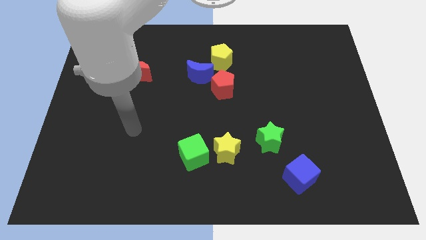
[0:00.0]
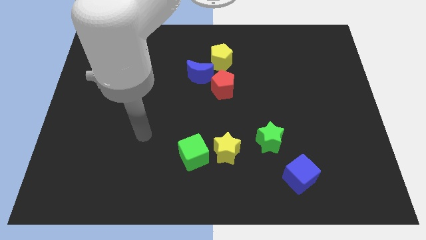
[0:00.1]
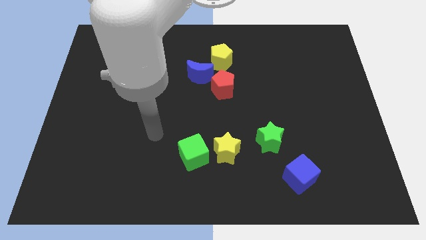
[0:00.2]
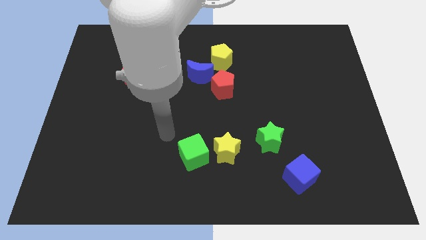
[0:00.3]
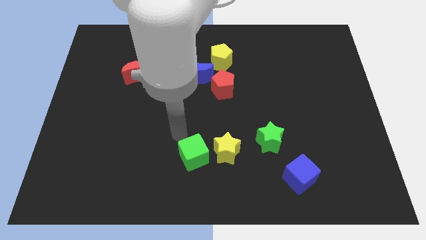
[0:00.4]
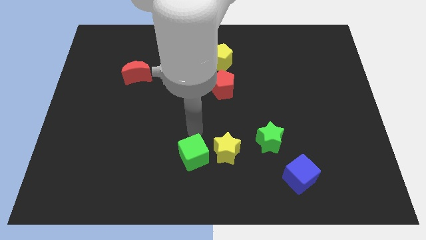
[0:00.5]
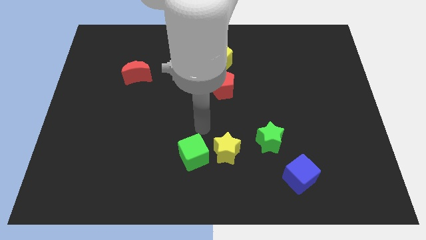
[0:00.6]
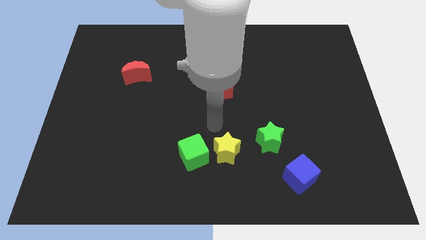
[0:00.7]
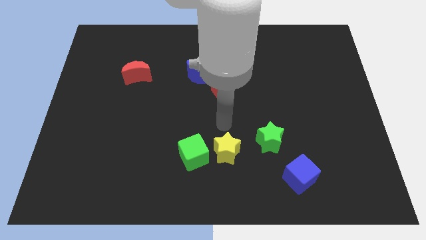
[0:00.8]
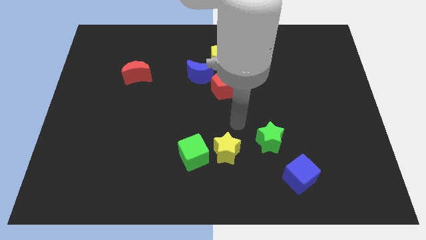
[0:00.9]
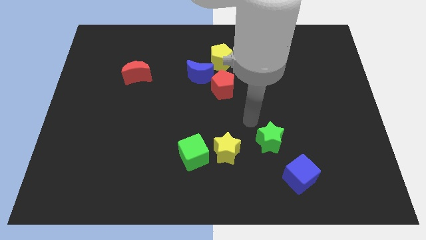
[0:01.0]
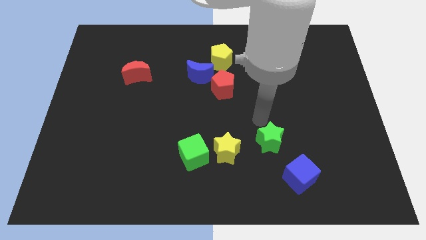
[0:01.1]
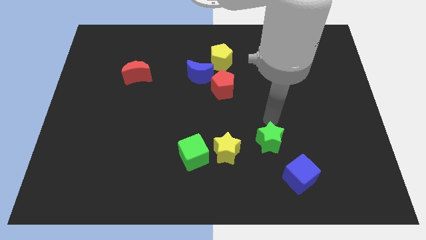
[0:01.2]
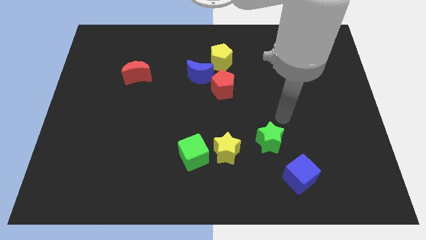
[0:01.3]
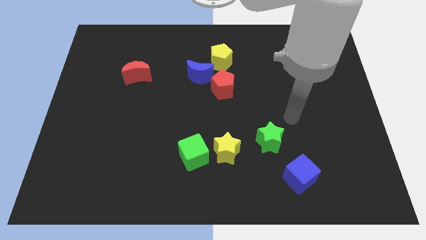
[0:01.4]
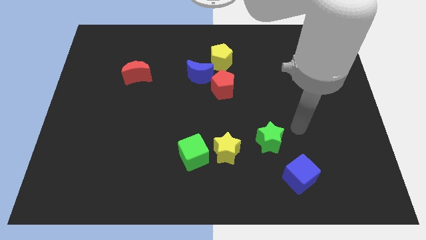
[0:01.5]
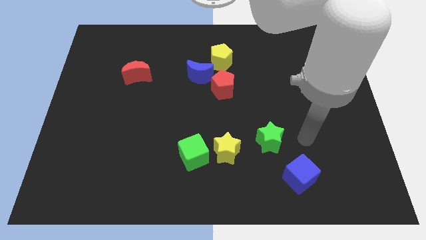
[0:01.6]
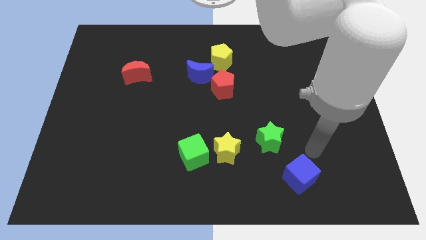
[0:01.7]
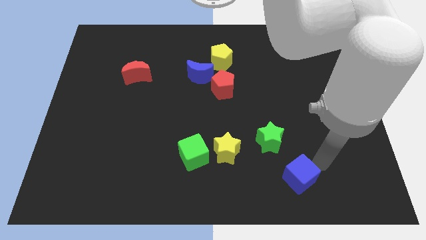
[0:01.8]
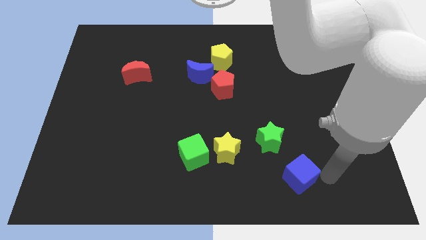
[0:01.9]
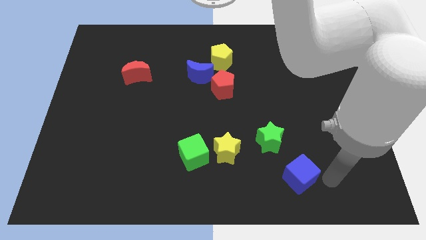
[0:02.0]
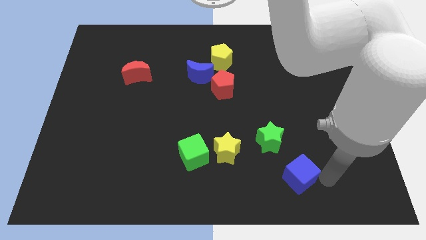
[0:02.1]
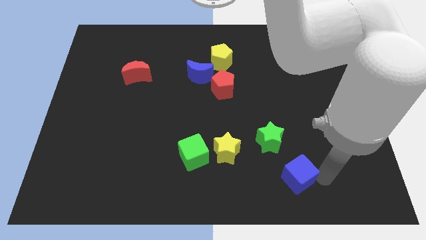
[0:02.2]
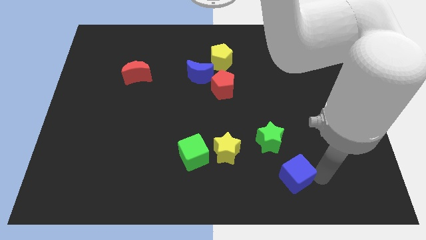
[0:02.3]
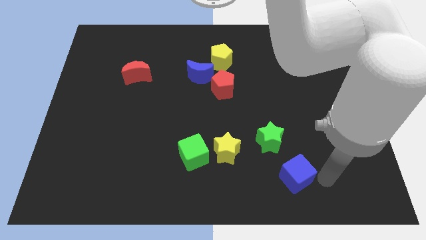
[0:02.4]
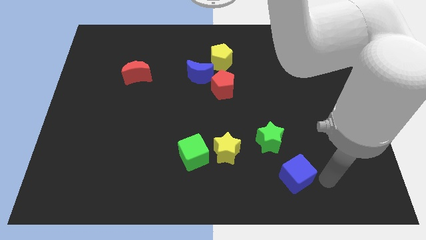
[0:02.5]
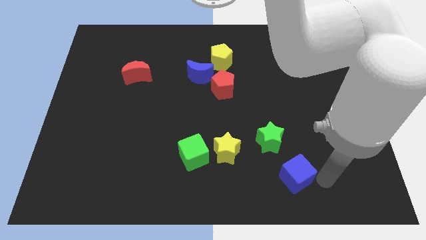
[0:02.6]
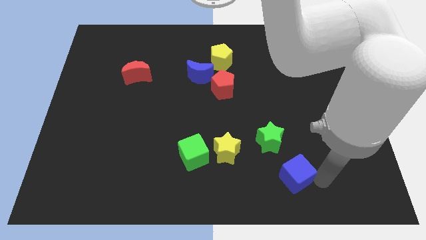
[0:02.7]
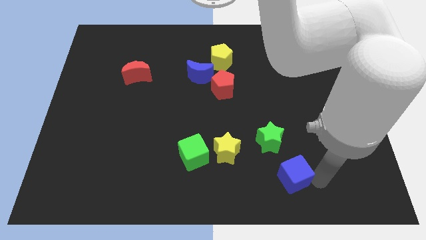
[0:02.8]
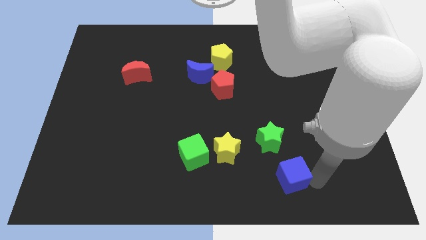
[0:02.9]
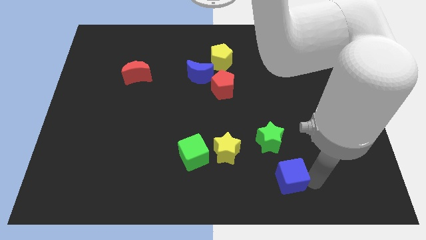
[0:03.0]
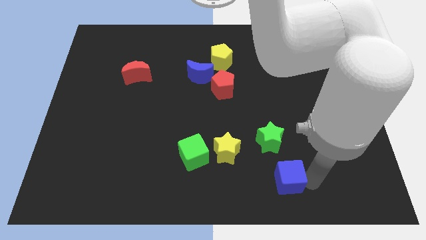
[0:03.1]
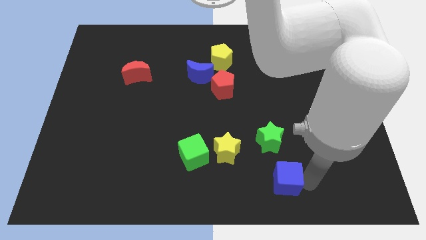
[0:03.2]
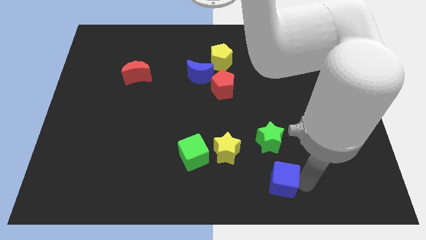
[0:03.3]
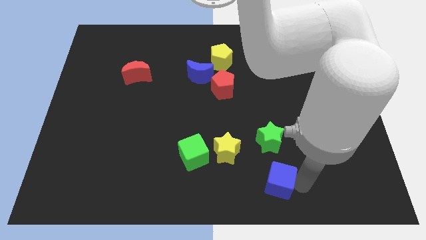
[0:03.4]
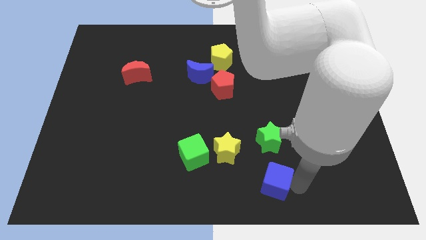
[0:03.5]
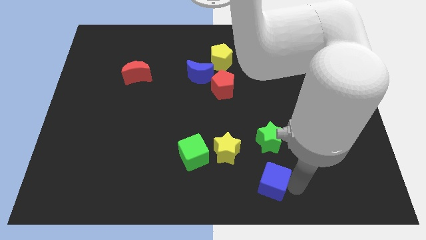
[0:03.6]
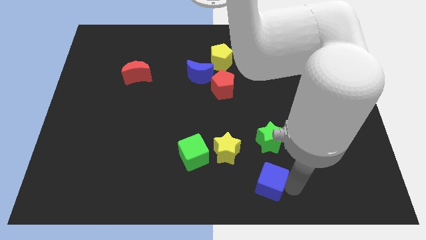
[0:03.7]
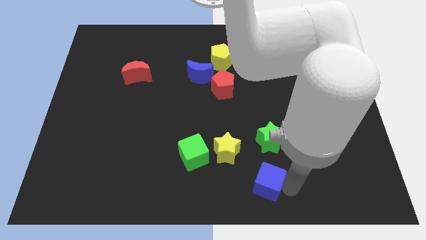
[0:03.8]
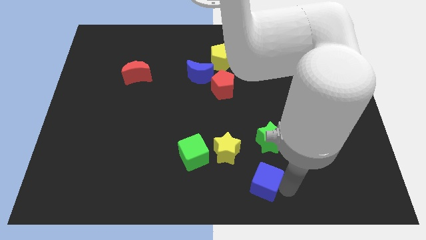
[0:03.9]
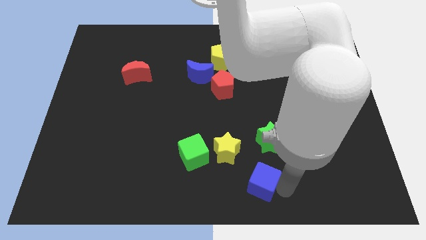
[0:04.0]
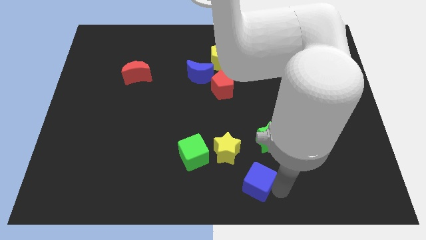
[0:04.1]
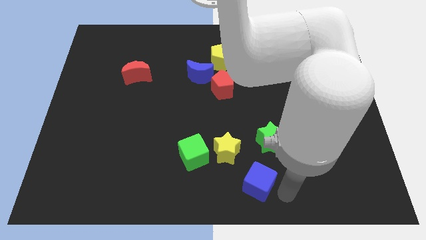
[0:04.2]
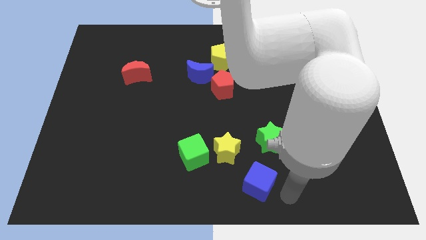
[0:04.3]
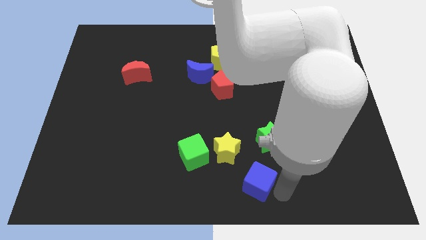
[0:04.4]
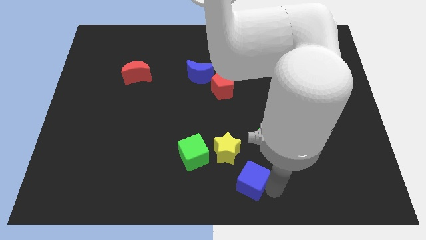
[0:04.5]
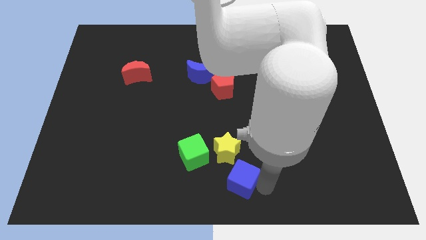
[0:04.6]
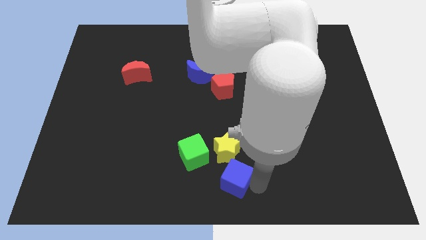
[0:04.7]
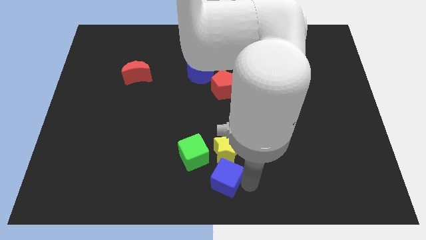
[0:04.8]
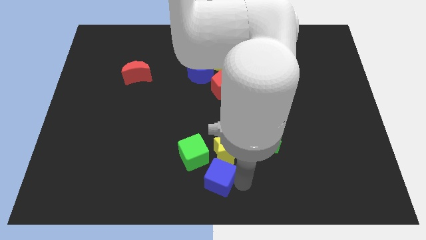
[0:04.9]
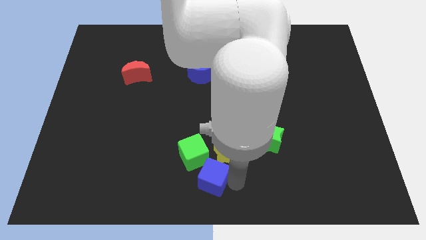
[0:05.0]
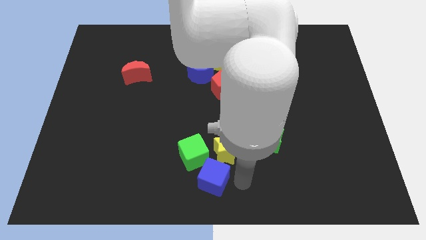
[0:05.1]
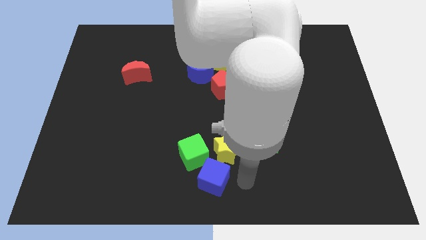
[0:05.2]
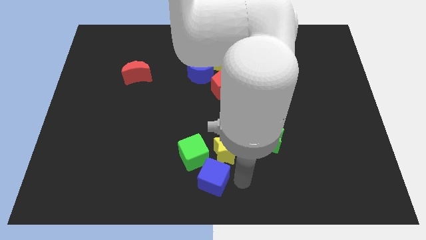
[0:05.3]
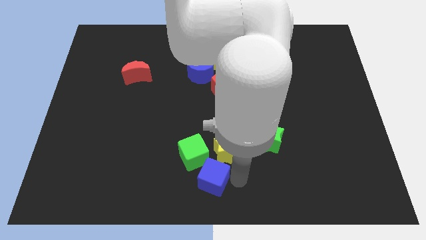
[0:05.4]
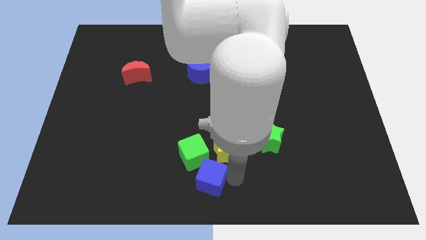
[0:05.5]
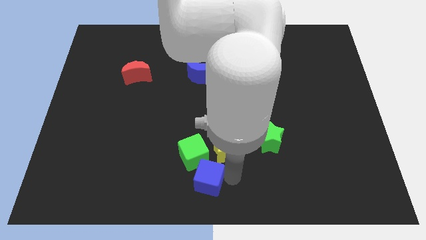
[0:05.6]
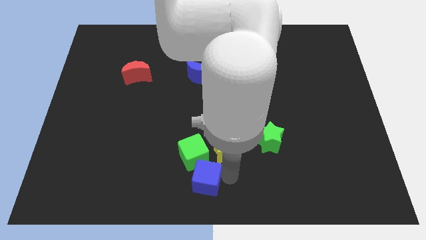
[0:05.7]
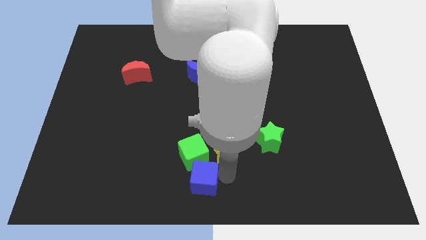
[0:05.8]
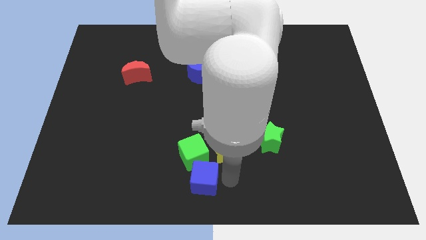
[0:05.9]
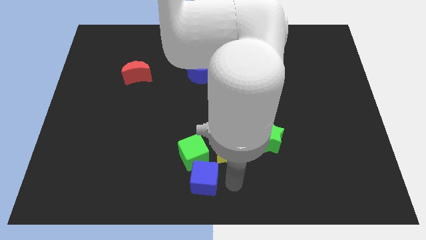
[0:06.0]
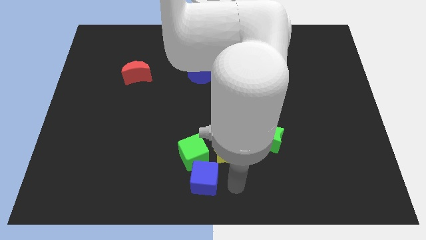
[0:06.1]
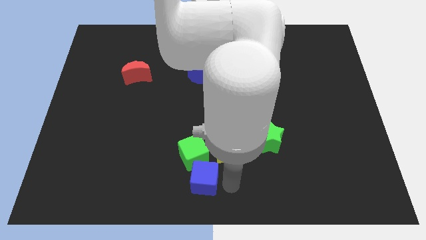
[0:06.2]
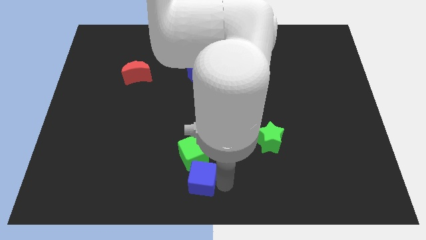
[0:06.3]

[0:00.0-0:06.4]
move the blue cube left

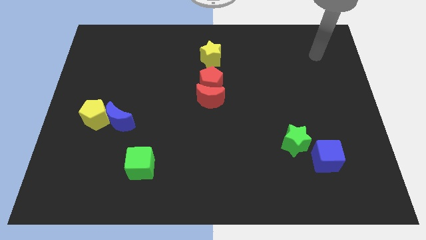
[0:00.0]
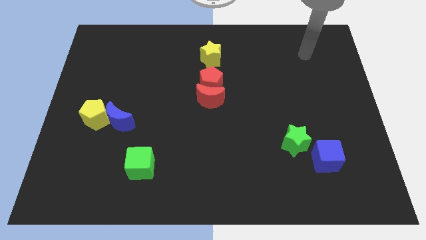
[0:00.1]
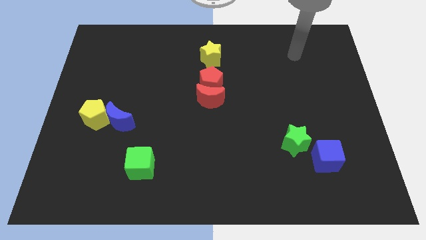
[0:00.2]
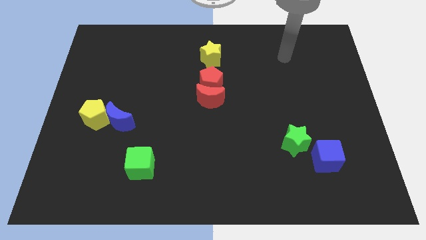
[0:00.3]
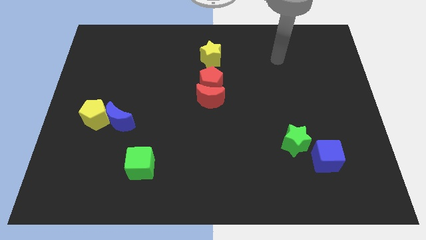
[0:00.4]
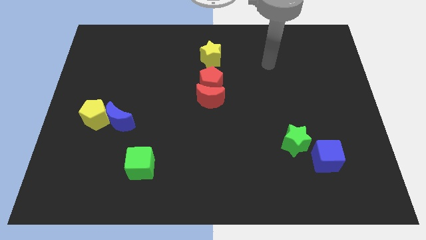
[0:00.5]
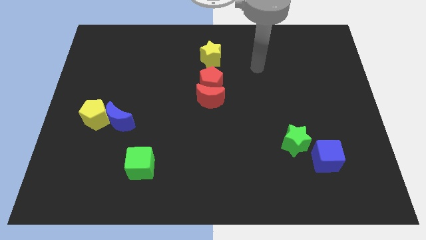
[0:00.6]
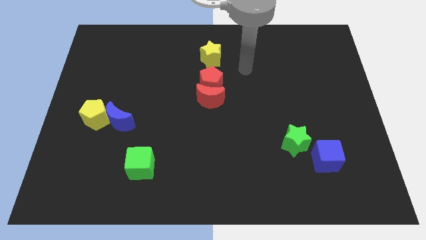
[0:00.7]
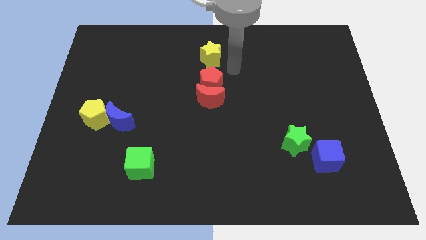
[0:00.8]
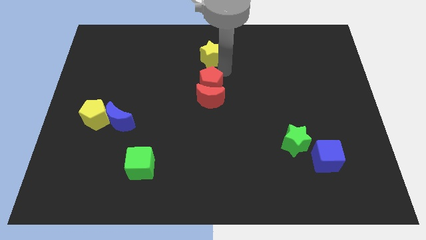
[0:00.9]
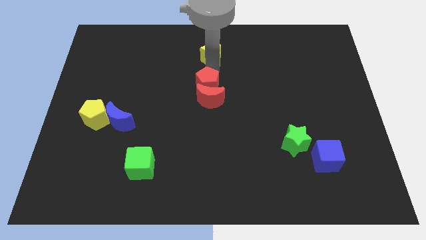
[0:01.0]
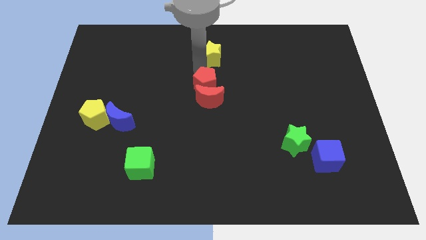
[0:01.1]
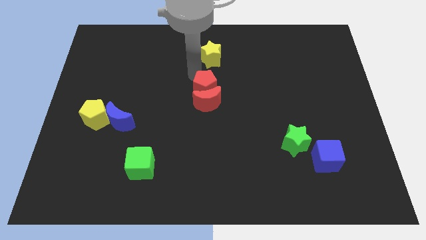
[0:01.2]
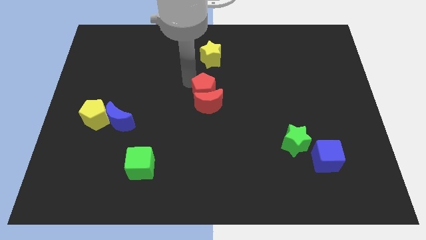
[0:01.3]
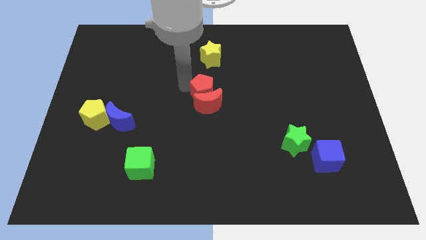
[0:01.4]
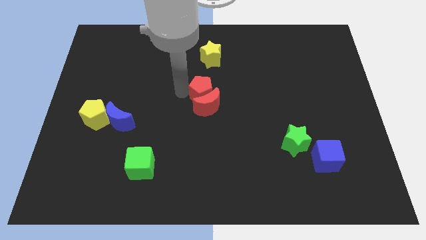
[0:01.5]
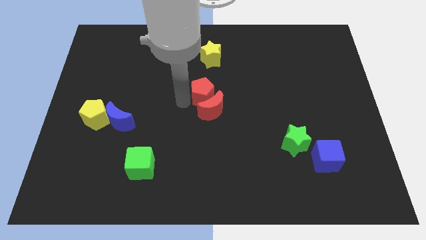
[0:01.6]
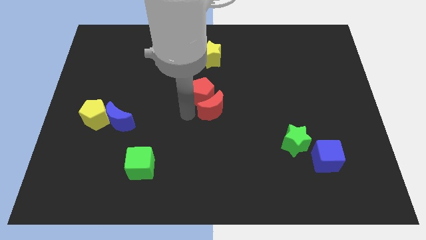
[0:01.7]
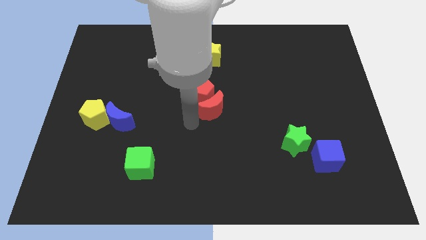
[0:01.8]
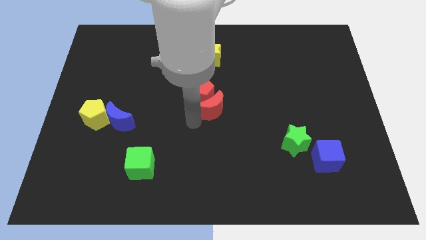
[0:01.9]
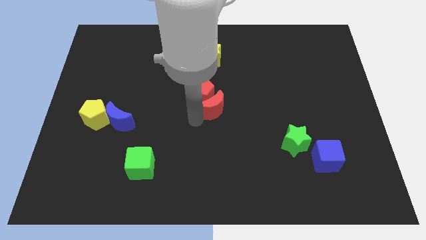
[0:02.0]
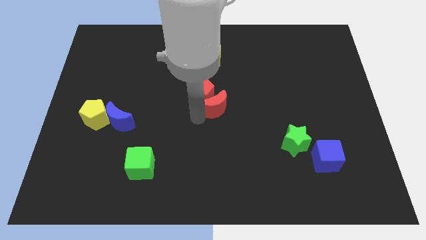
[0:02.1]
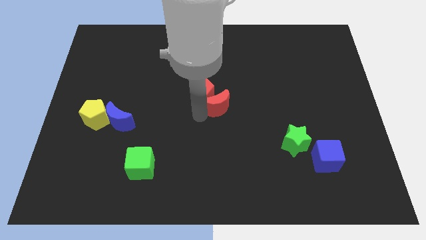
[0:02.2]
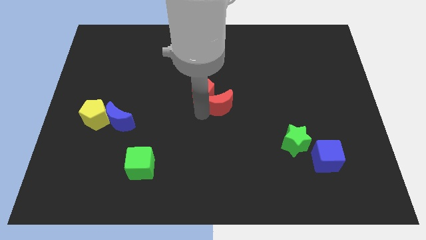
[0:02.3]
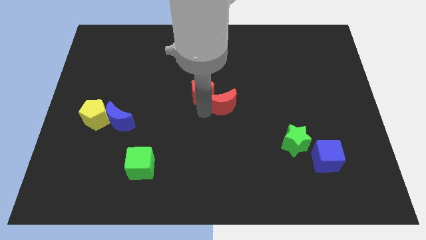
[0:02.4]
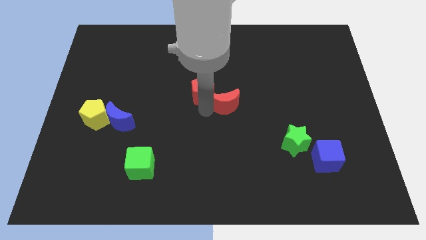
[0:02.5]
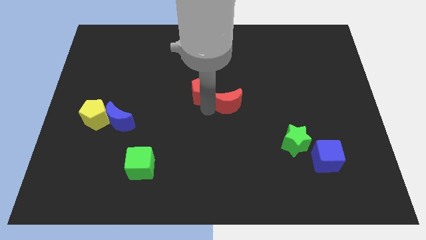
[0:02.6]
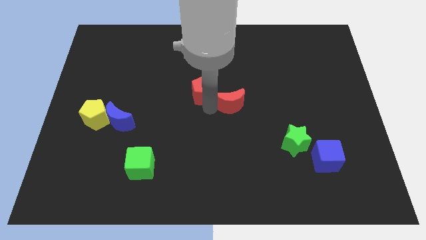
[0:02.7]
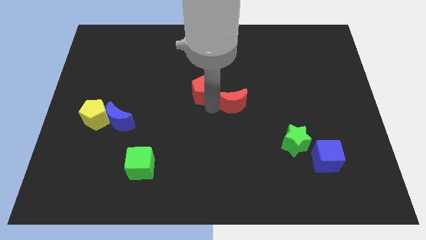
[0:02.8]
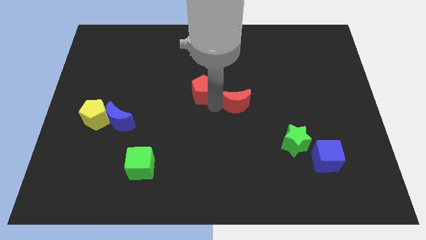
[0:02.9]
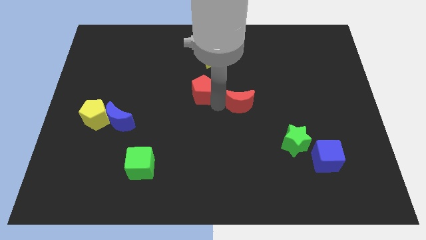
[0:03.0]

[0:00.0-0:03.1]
move the red moon somewhat to the right
